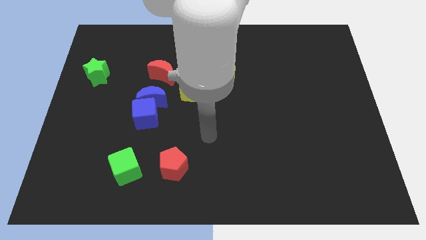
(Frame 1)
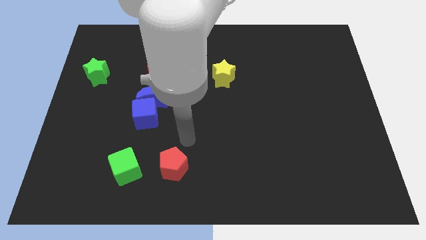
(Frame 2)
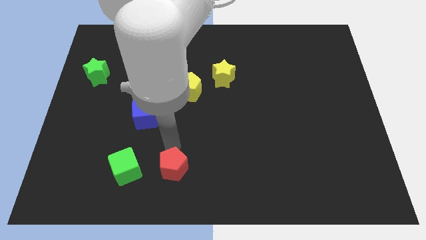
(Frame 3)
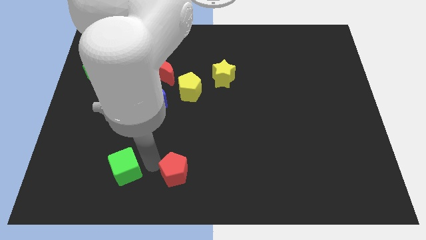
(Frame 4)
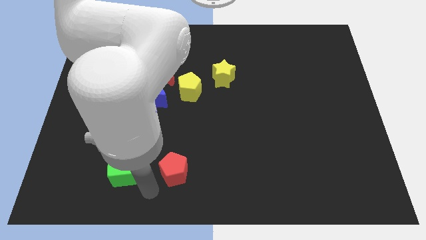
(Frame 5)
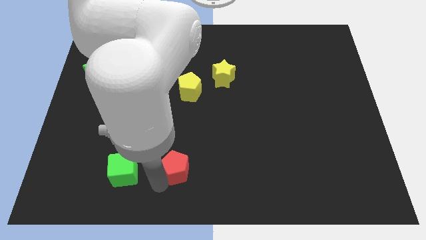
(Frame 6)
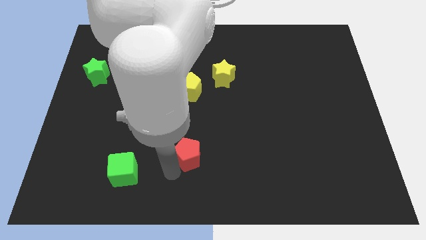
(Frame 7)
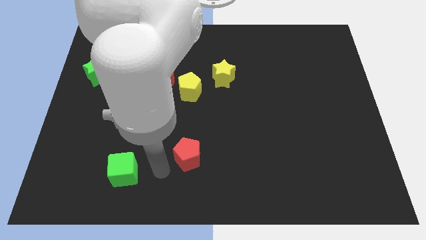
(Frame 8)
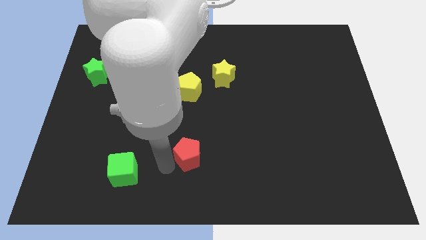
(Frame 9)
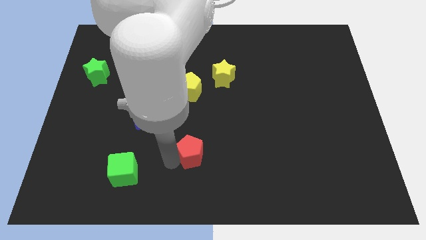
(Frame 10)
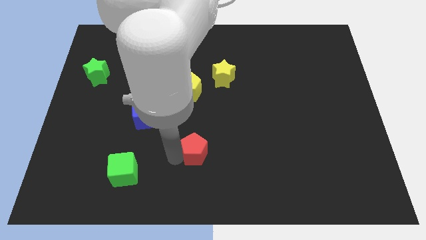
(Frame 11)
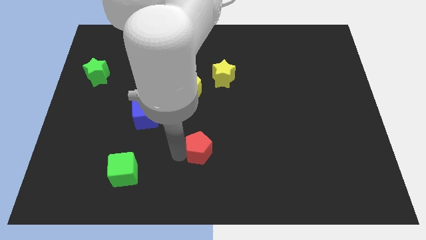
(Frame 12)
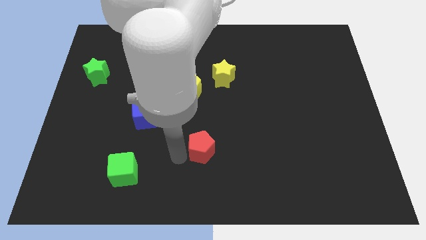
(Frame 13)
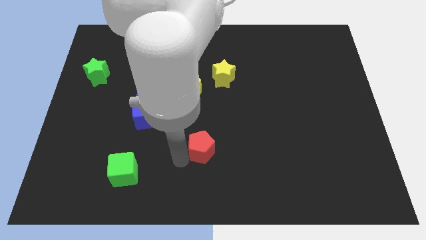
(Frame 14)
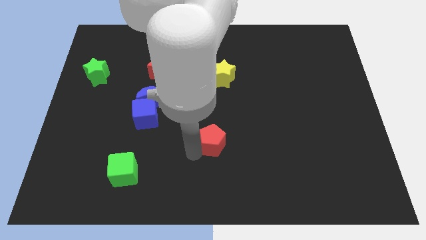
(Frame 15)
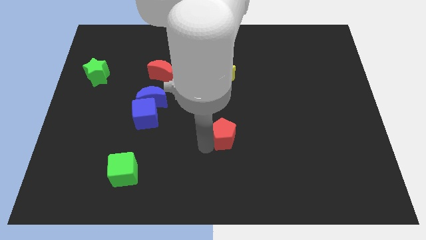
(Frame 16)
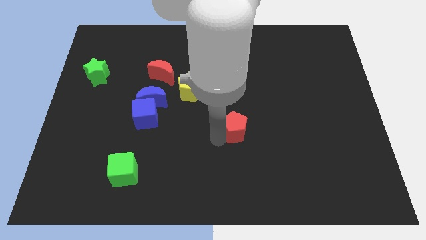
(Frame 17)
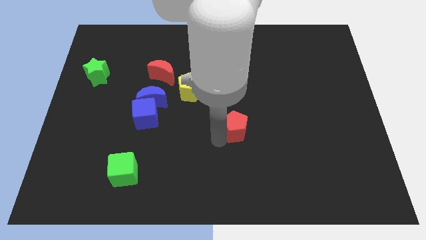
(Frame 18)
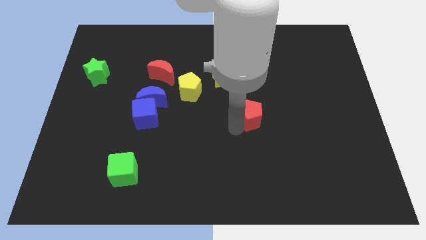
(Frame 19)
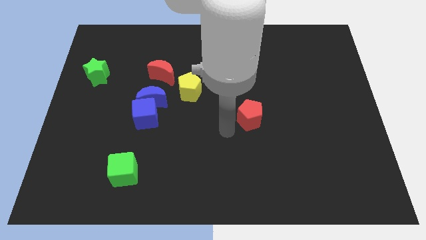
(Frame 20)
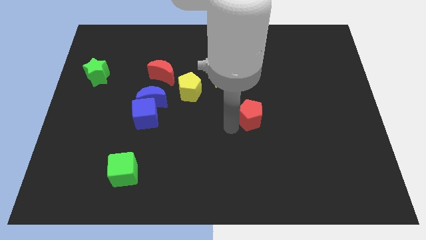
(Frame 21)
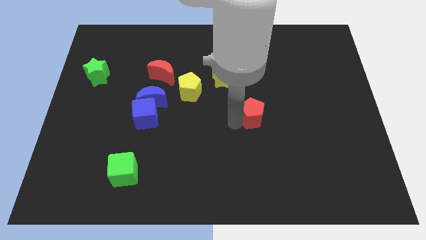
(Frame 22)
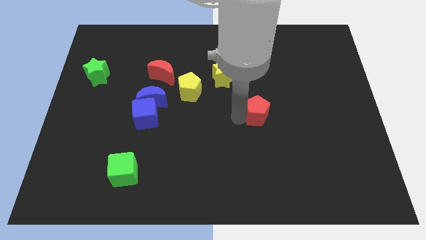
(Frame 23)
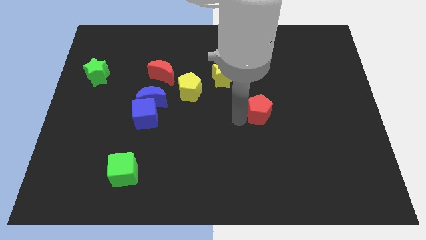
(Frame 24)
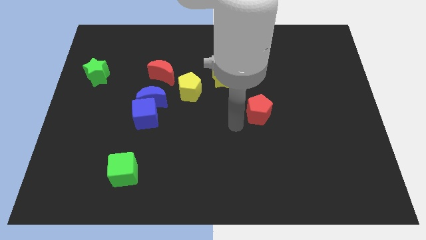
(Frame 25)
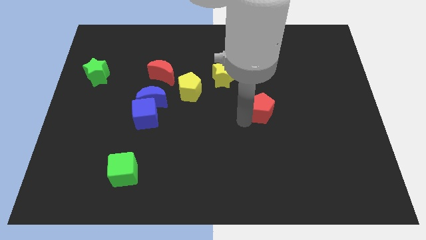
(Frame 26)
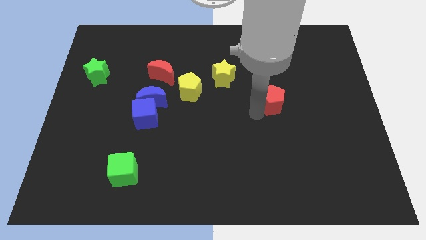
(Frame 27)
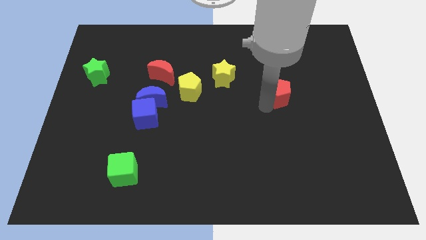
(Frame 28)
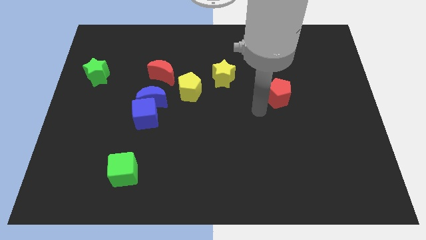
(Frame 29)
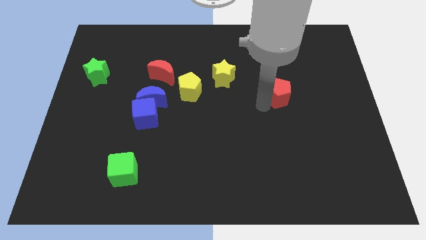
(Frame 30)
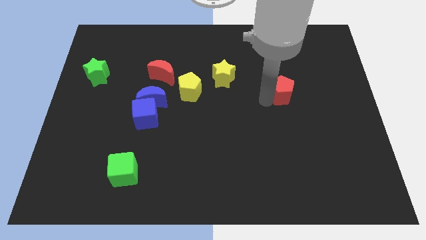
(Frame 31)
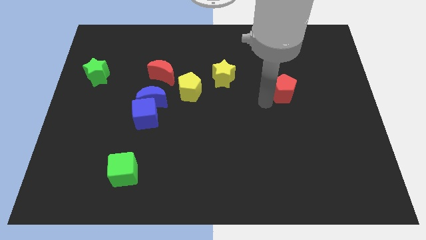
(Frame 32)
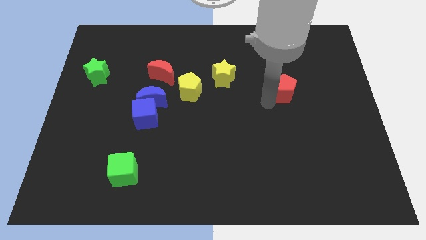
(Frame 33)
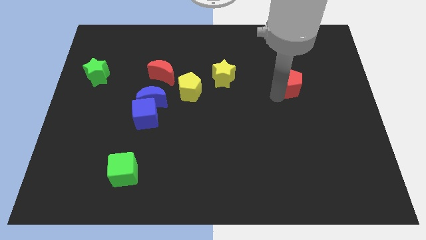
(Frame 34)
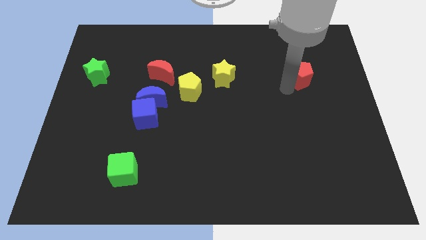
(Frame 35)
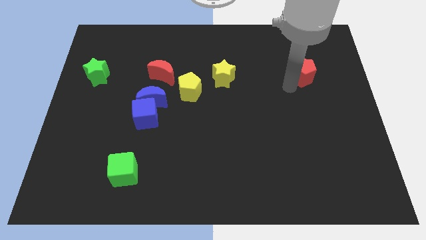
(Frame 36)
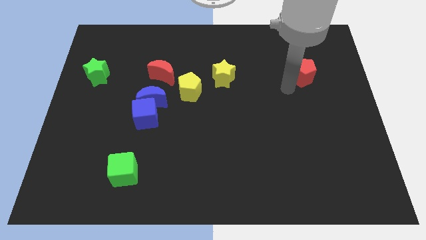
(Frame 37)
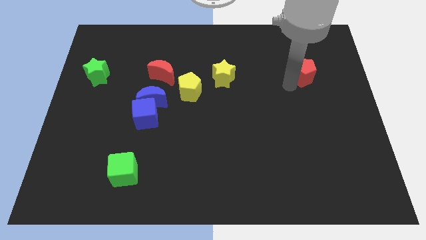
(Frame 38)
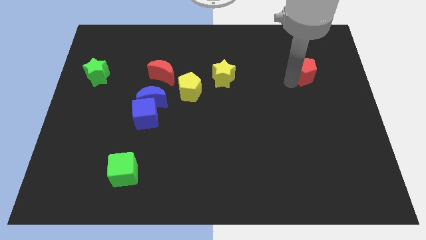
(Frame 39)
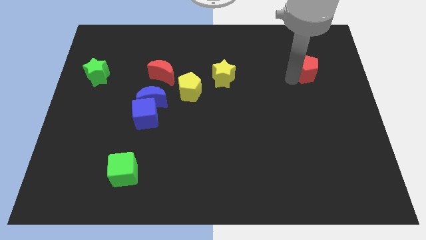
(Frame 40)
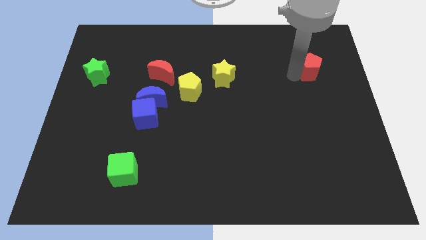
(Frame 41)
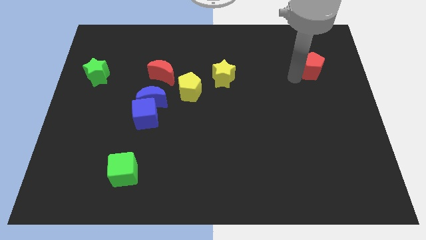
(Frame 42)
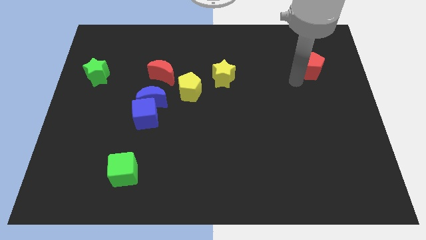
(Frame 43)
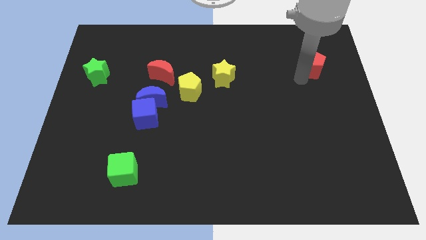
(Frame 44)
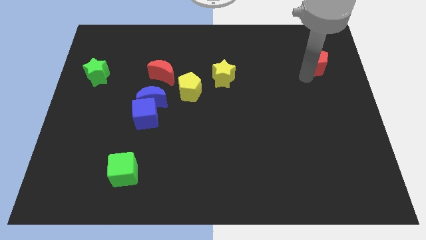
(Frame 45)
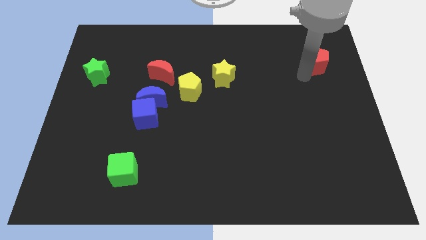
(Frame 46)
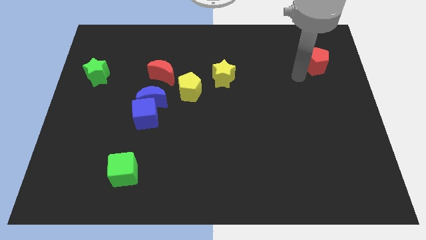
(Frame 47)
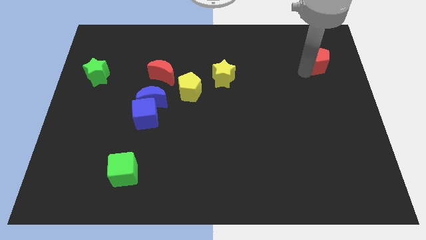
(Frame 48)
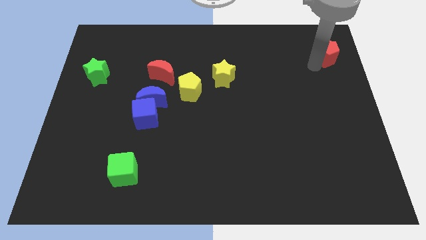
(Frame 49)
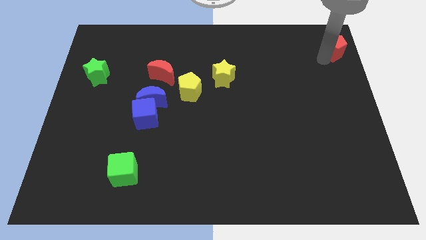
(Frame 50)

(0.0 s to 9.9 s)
put the red pentagon to the top right

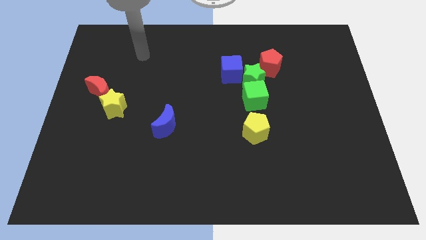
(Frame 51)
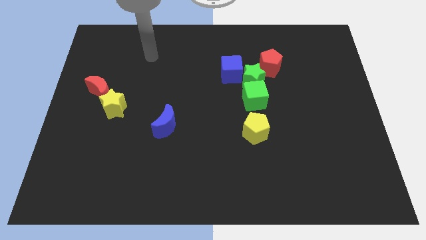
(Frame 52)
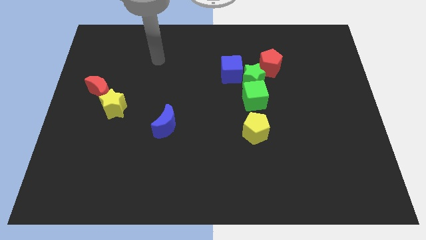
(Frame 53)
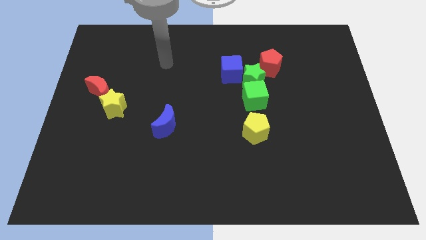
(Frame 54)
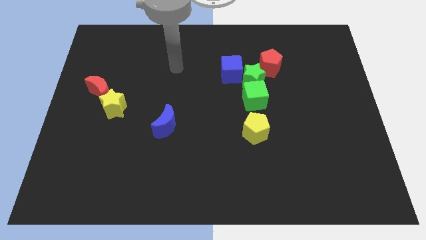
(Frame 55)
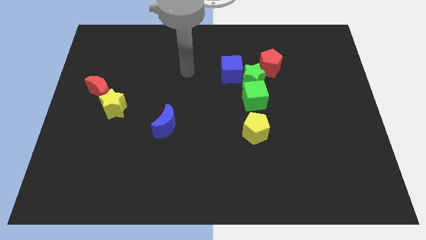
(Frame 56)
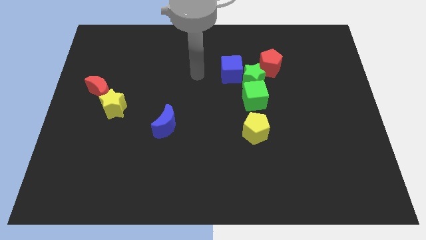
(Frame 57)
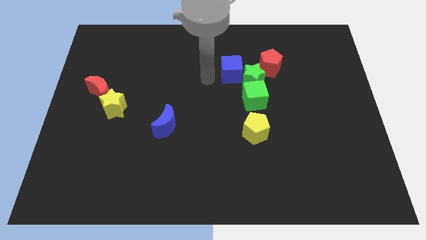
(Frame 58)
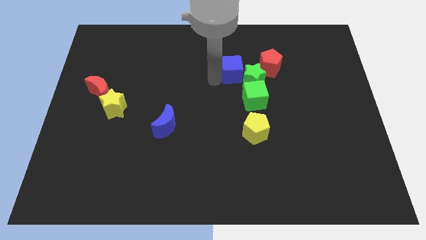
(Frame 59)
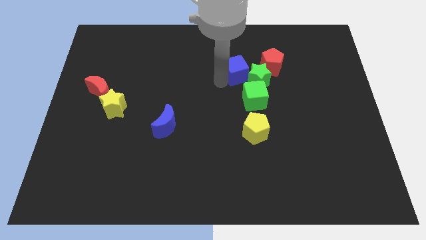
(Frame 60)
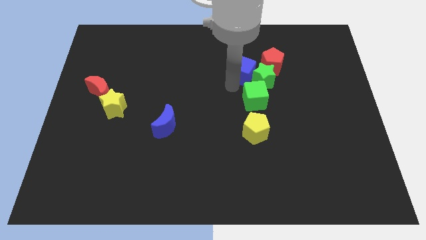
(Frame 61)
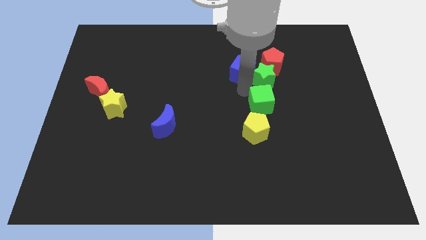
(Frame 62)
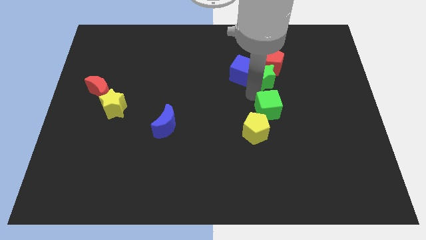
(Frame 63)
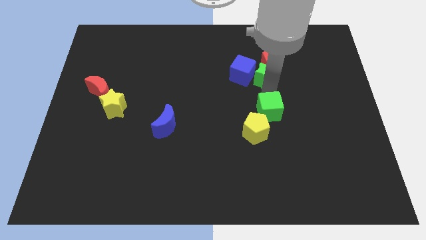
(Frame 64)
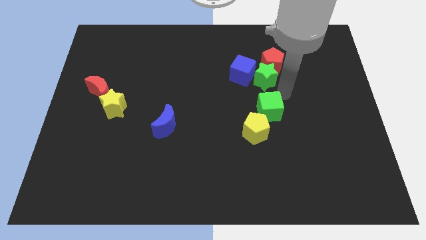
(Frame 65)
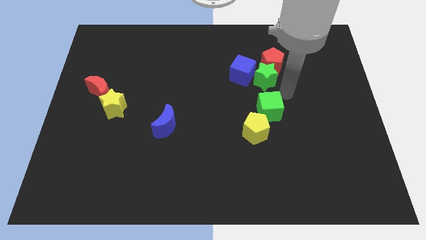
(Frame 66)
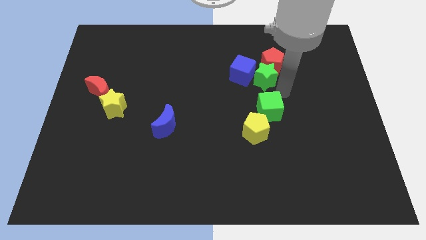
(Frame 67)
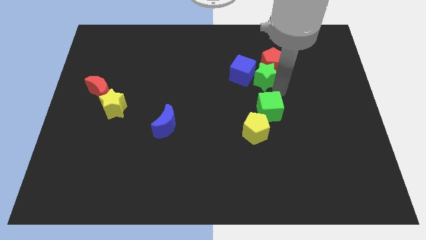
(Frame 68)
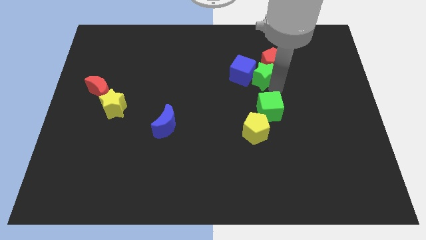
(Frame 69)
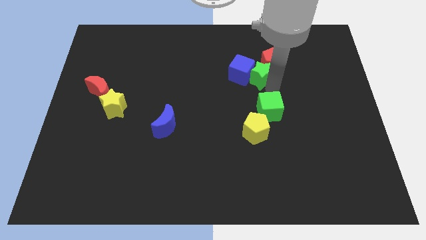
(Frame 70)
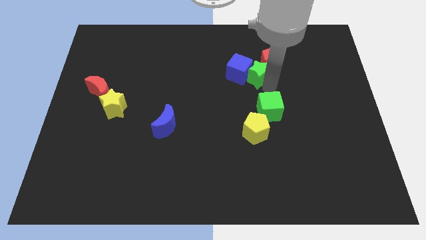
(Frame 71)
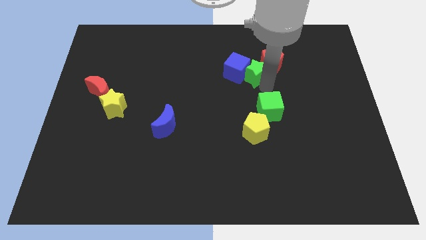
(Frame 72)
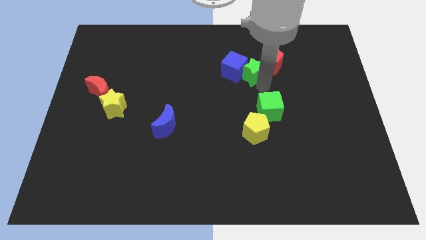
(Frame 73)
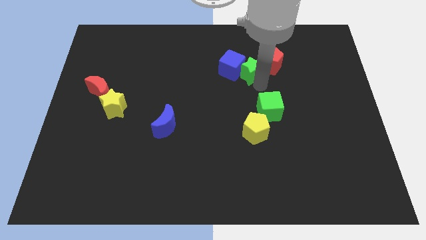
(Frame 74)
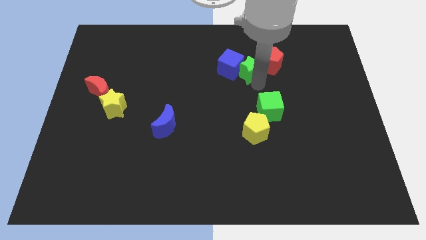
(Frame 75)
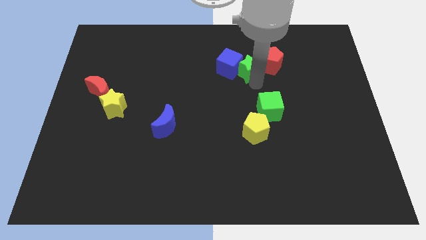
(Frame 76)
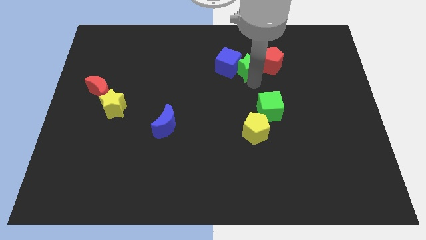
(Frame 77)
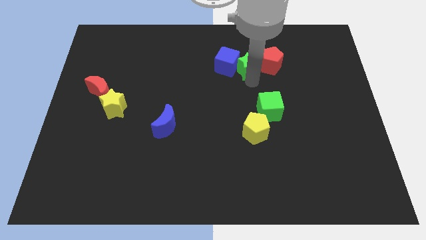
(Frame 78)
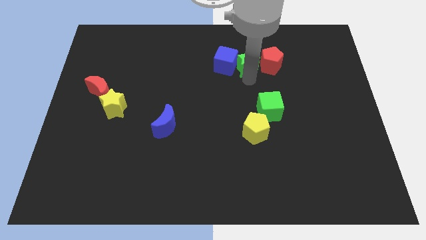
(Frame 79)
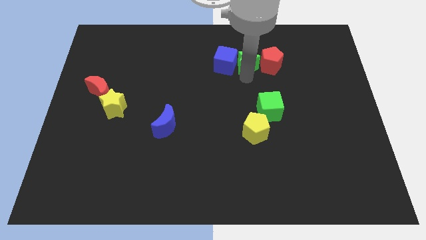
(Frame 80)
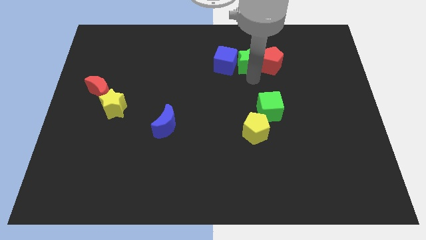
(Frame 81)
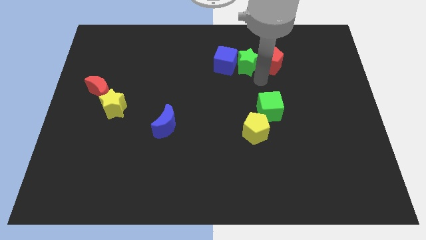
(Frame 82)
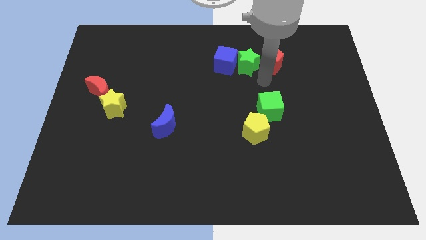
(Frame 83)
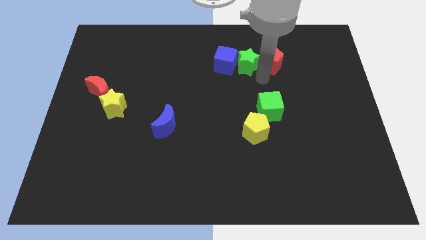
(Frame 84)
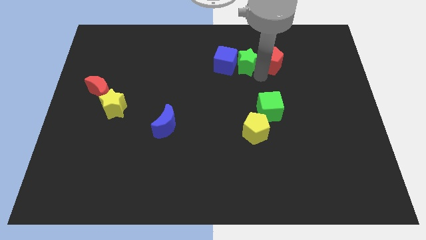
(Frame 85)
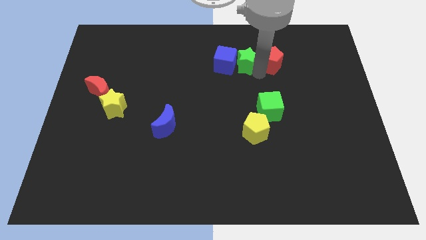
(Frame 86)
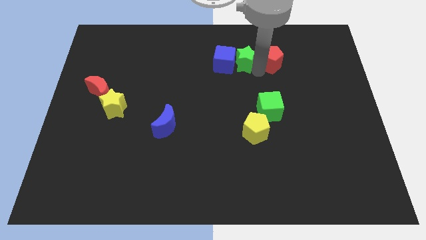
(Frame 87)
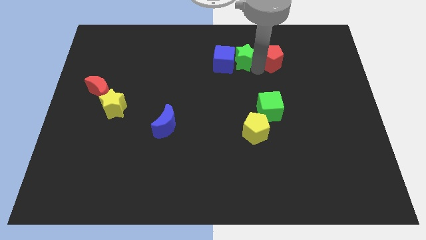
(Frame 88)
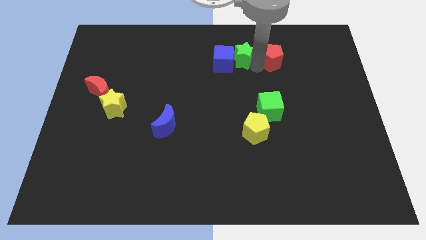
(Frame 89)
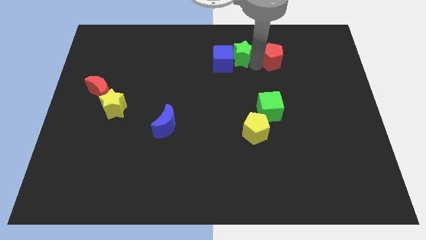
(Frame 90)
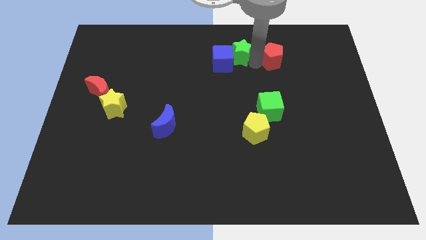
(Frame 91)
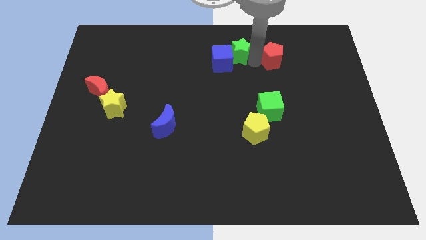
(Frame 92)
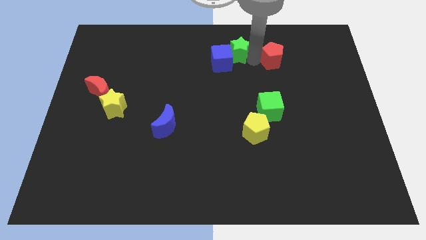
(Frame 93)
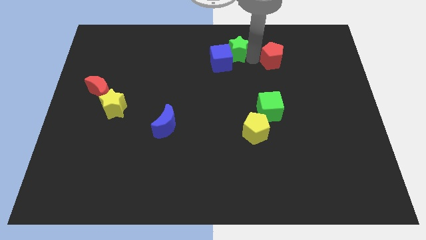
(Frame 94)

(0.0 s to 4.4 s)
push the green star to the towards your base
